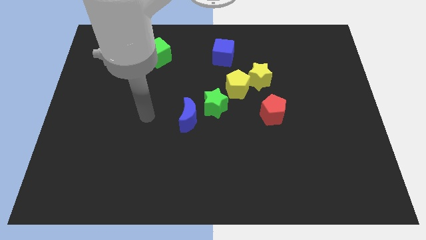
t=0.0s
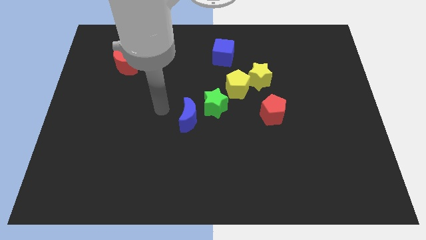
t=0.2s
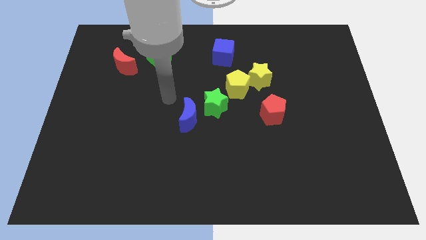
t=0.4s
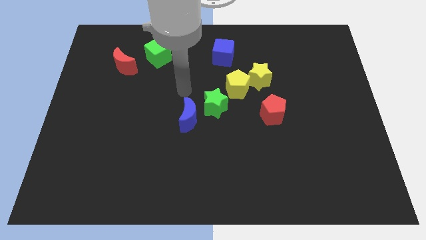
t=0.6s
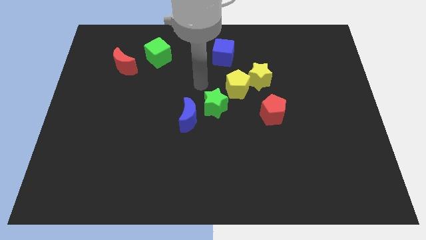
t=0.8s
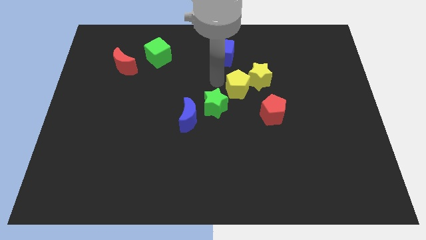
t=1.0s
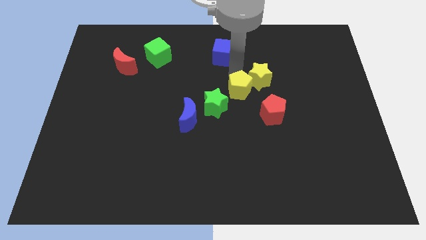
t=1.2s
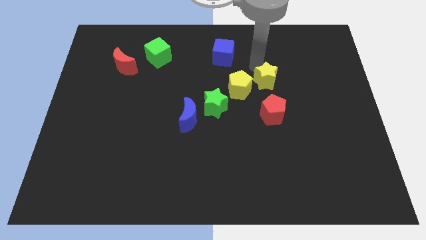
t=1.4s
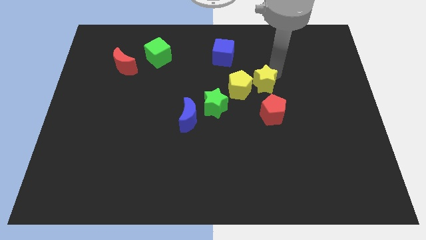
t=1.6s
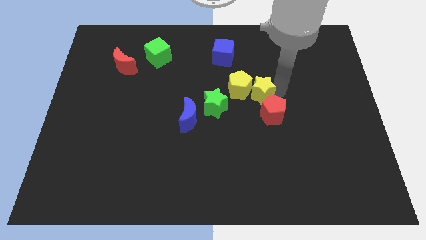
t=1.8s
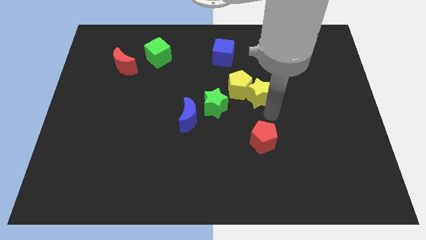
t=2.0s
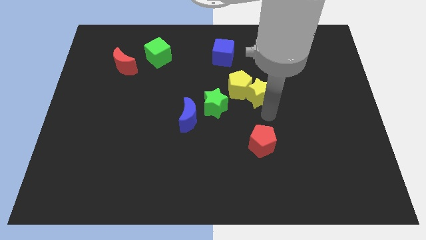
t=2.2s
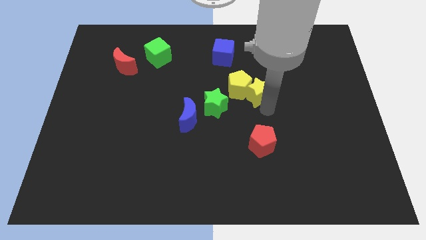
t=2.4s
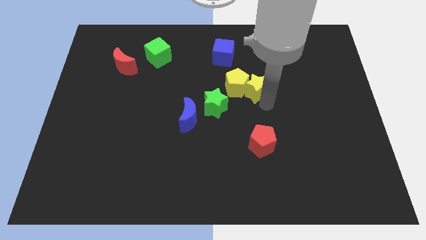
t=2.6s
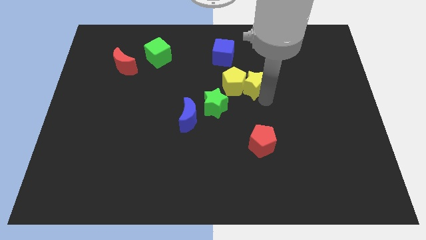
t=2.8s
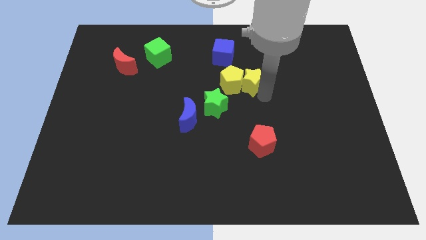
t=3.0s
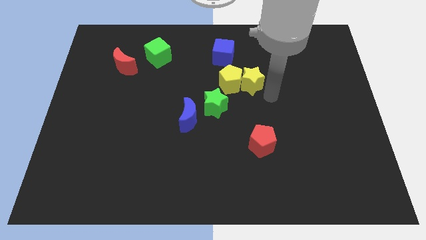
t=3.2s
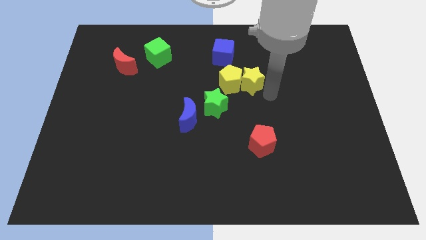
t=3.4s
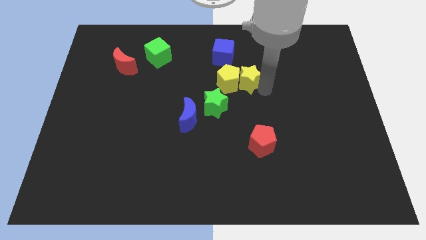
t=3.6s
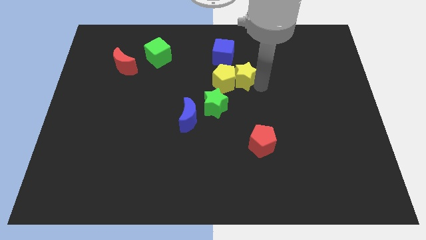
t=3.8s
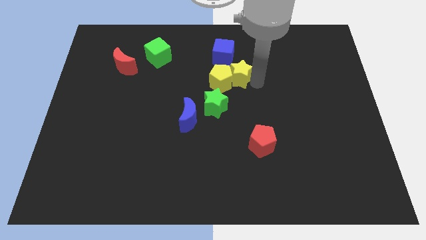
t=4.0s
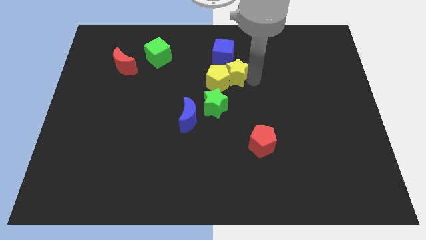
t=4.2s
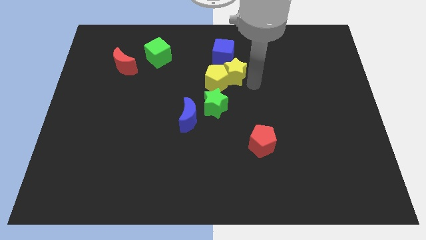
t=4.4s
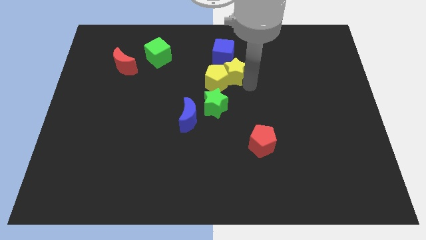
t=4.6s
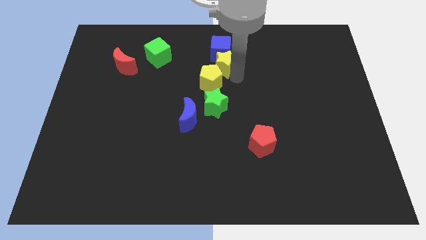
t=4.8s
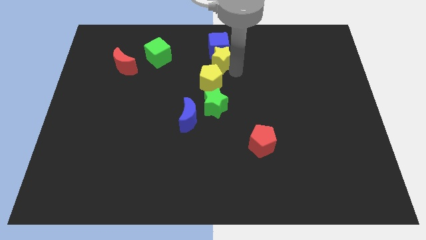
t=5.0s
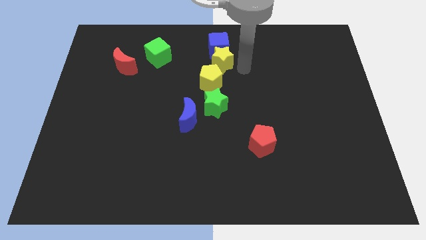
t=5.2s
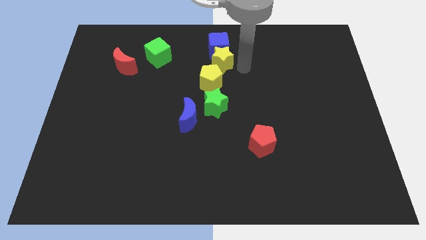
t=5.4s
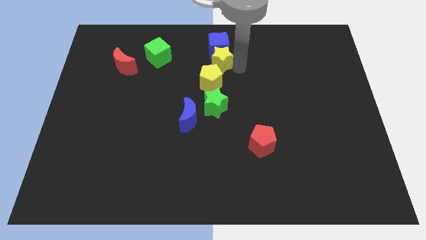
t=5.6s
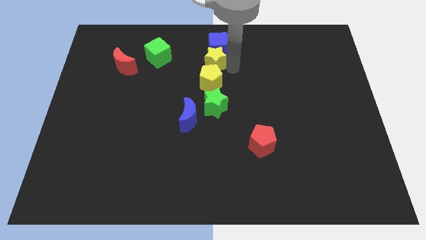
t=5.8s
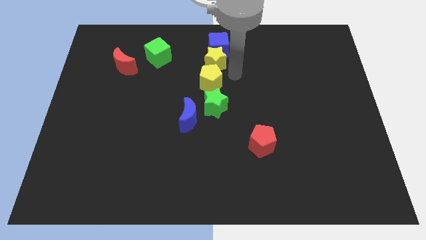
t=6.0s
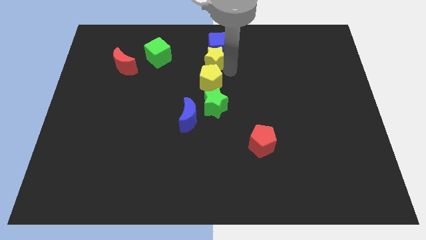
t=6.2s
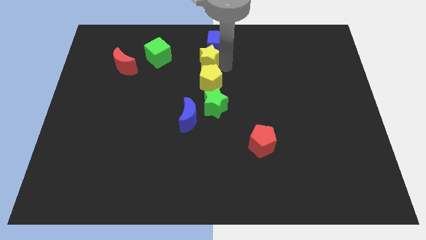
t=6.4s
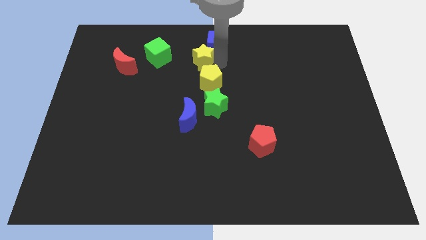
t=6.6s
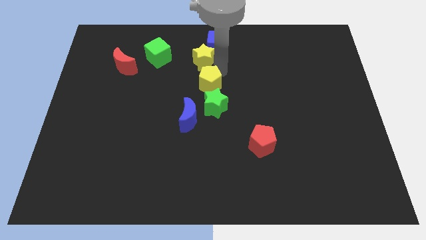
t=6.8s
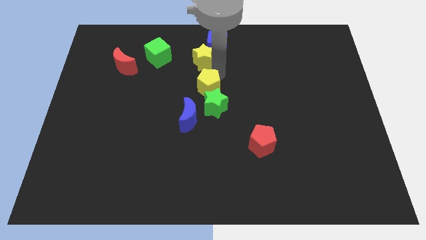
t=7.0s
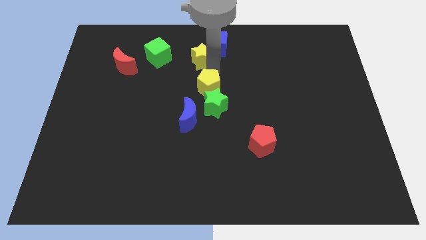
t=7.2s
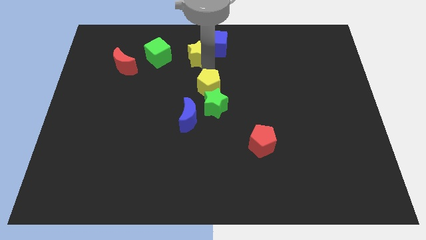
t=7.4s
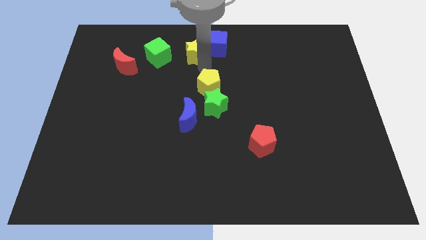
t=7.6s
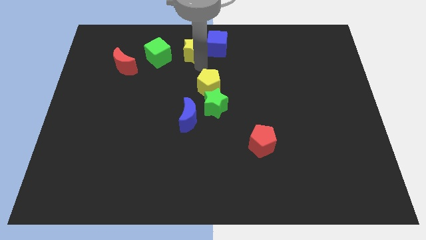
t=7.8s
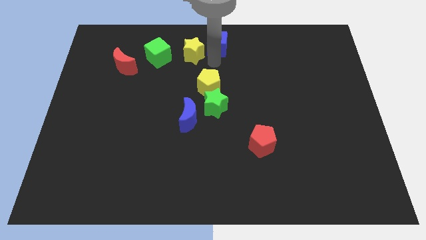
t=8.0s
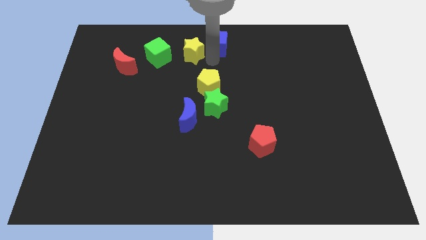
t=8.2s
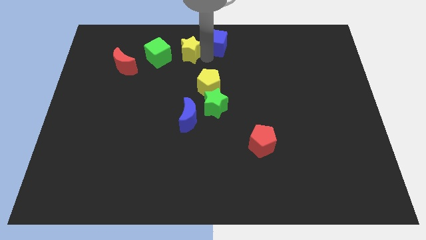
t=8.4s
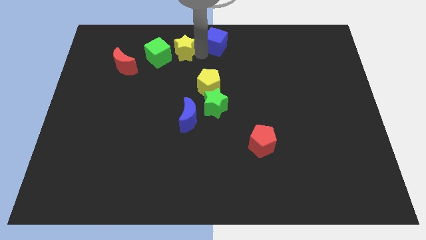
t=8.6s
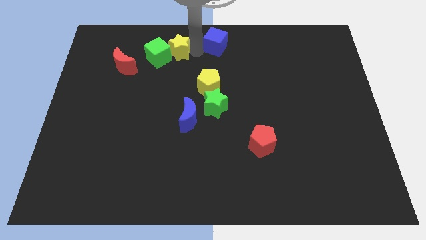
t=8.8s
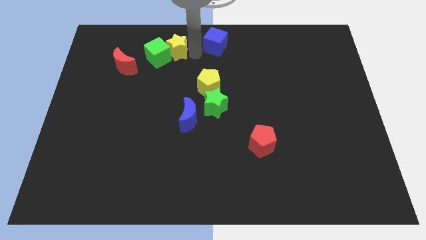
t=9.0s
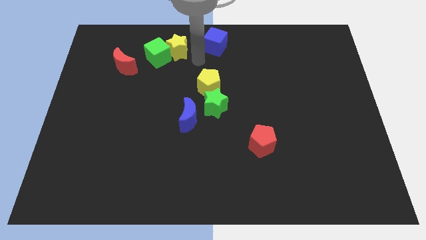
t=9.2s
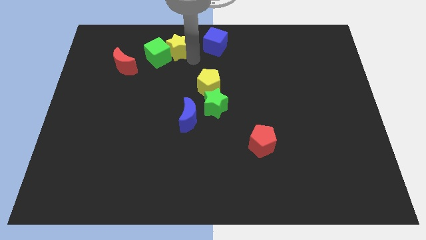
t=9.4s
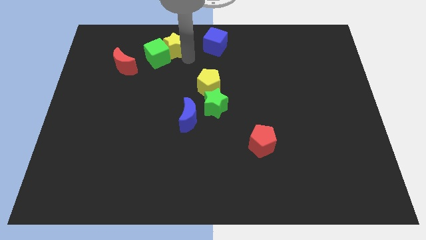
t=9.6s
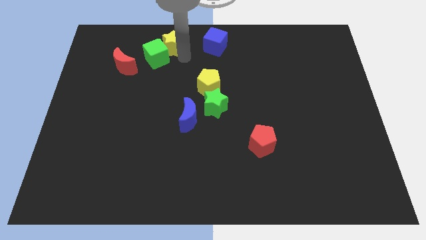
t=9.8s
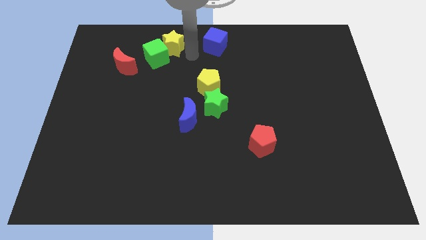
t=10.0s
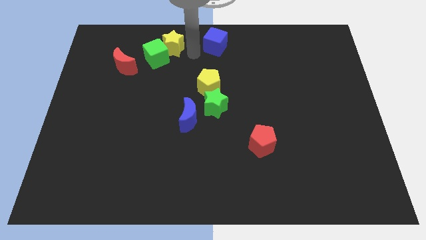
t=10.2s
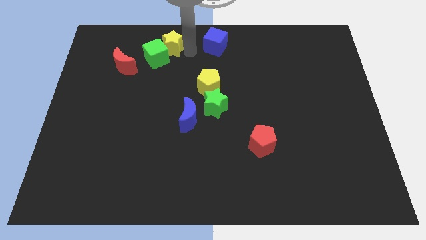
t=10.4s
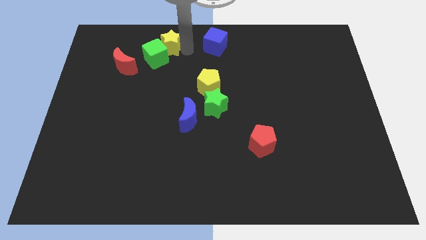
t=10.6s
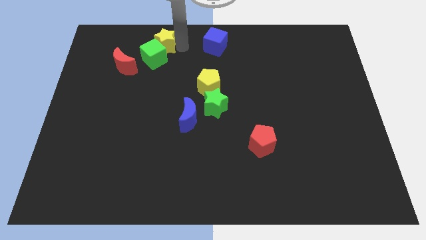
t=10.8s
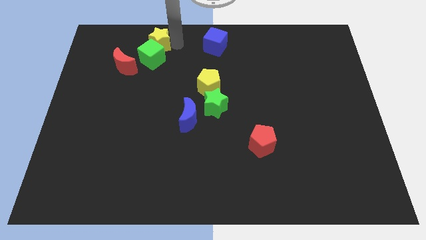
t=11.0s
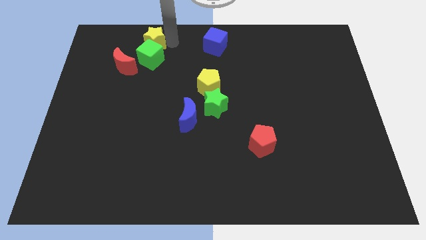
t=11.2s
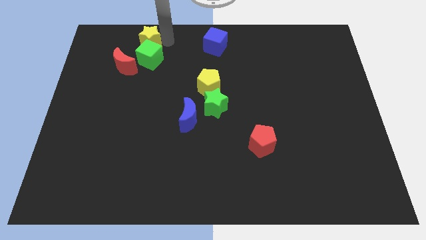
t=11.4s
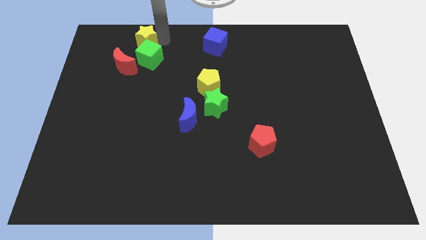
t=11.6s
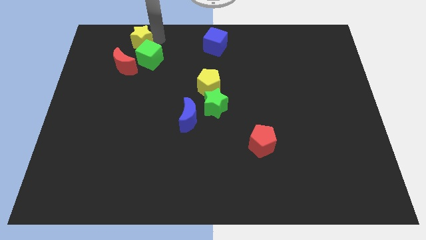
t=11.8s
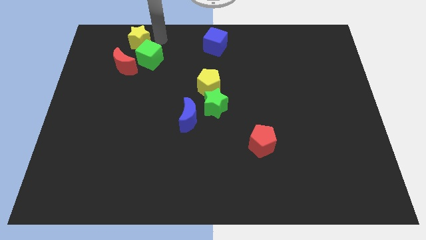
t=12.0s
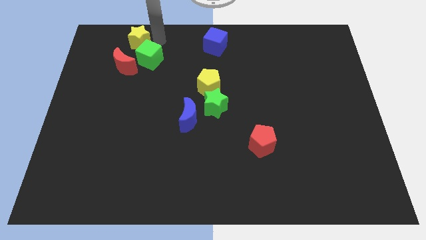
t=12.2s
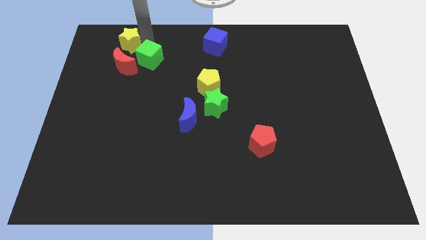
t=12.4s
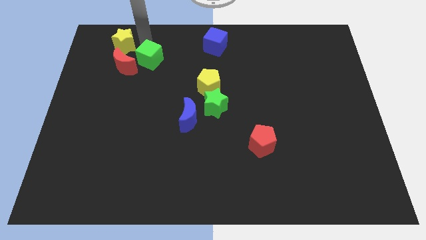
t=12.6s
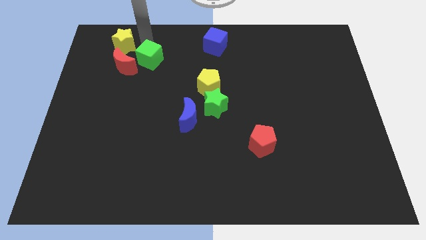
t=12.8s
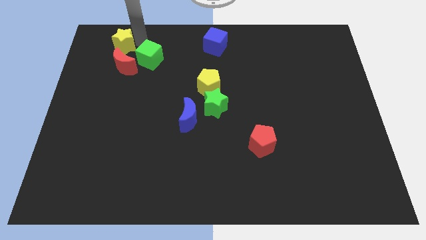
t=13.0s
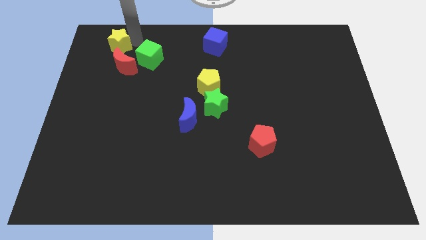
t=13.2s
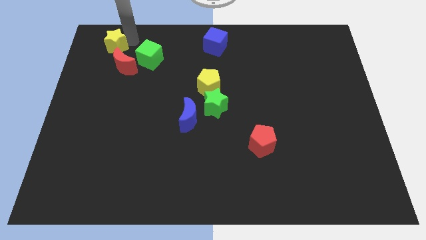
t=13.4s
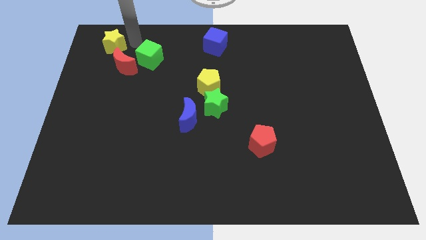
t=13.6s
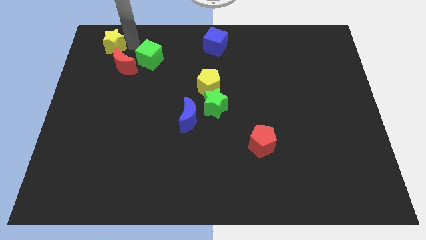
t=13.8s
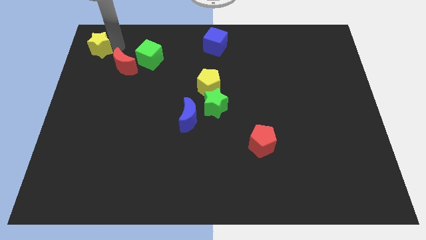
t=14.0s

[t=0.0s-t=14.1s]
push the yellow star to the top left of the board
